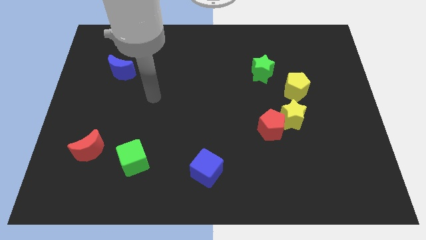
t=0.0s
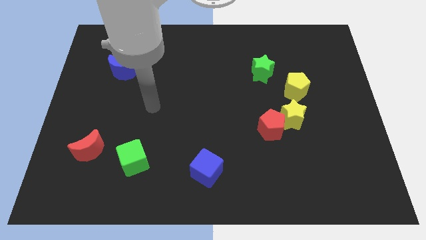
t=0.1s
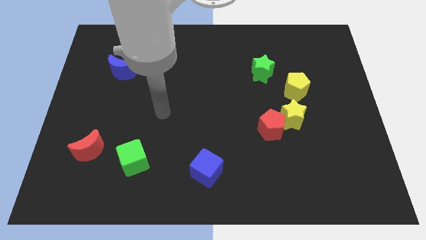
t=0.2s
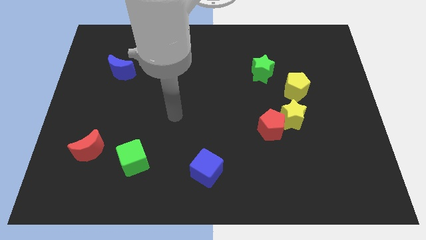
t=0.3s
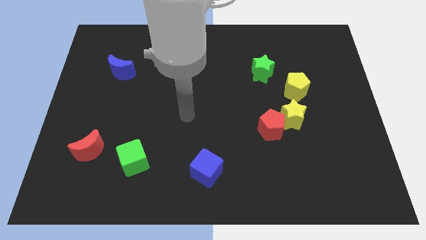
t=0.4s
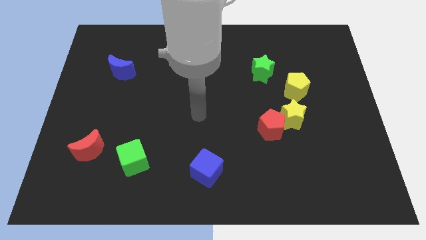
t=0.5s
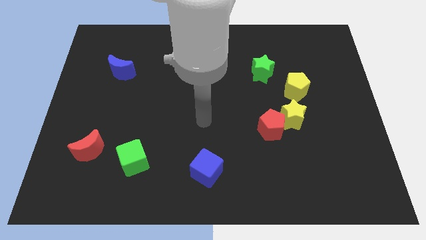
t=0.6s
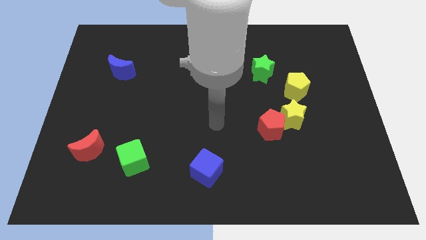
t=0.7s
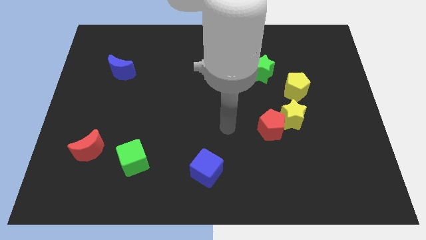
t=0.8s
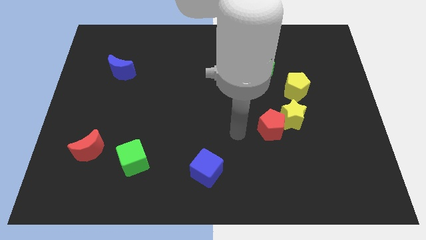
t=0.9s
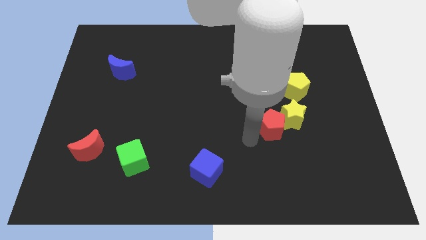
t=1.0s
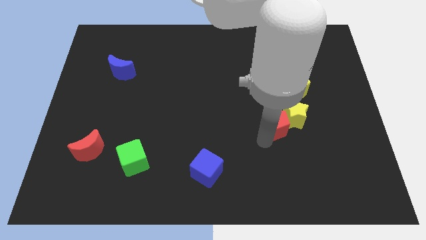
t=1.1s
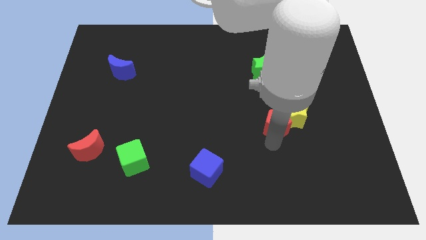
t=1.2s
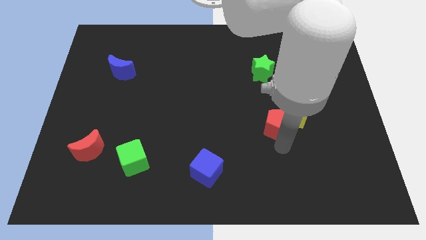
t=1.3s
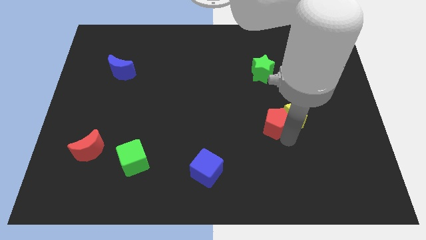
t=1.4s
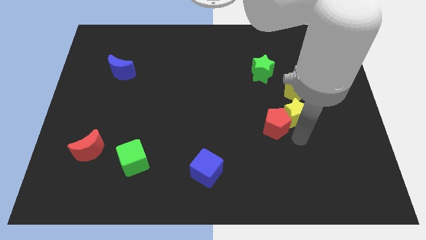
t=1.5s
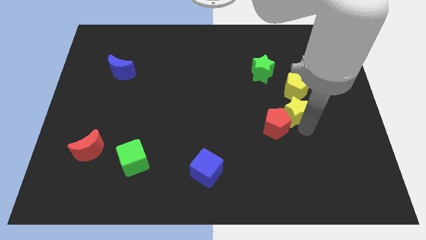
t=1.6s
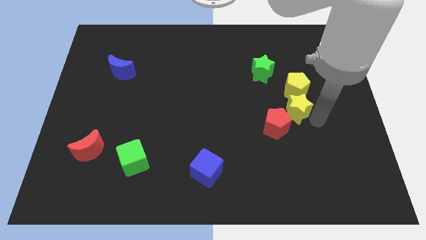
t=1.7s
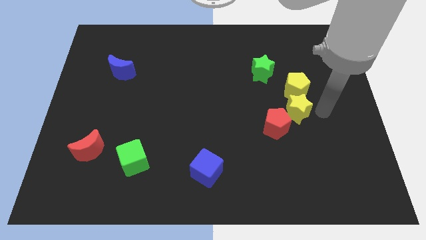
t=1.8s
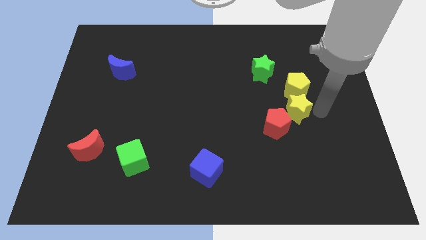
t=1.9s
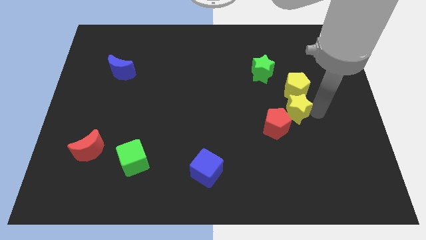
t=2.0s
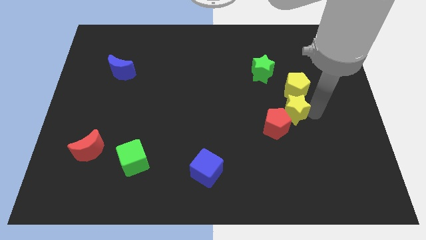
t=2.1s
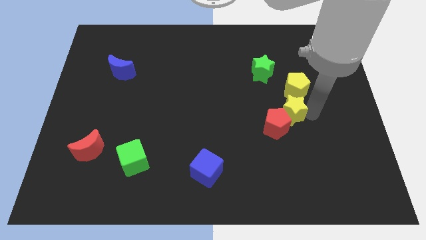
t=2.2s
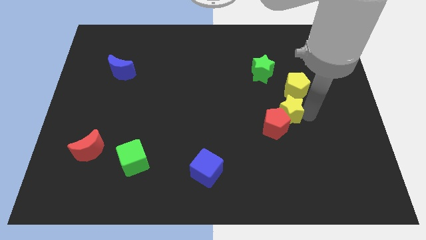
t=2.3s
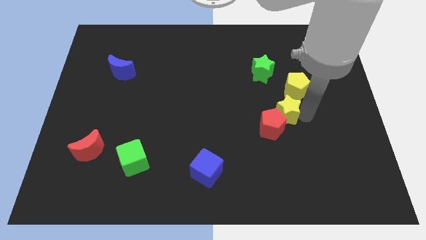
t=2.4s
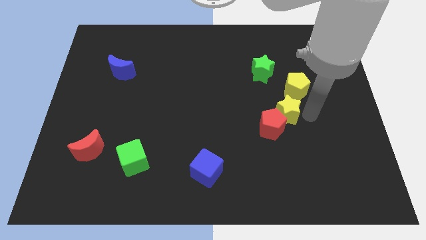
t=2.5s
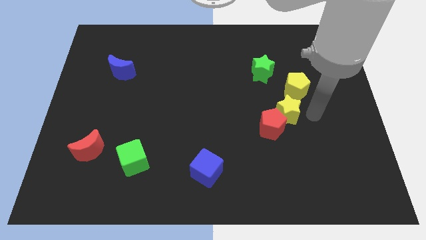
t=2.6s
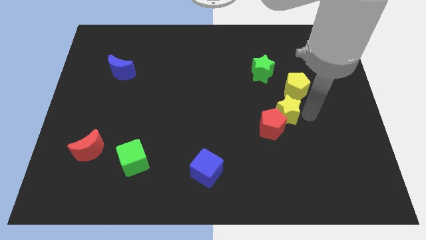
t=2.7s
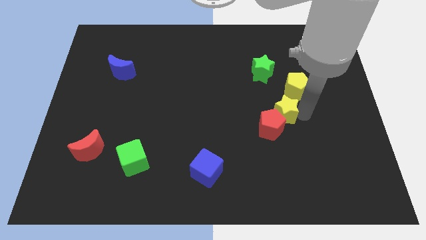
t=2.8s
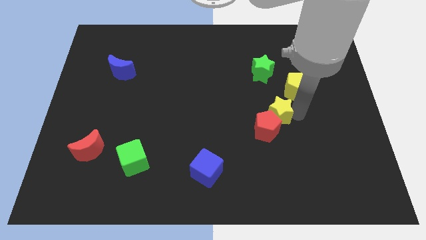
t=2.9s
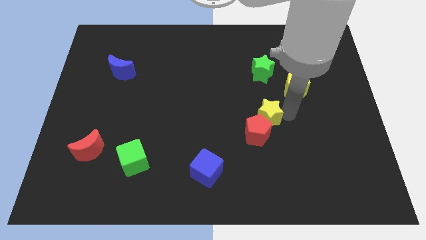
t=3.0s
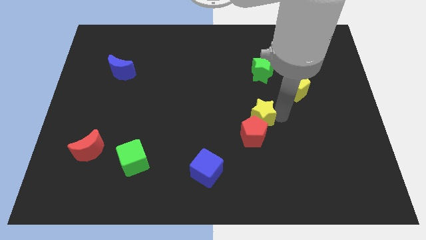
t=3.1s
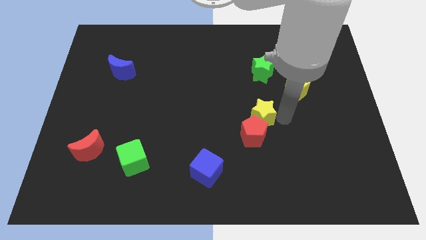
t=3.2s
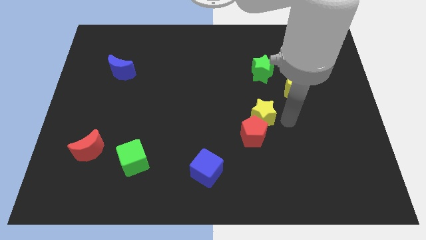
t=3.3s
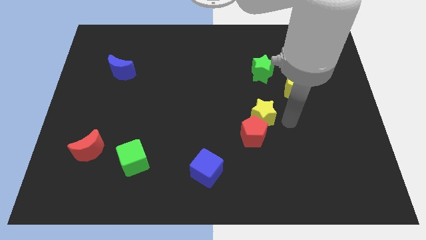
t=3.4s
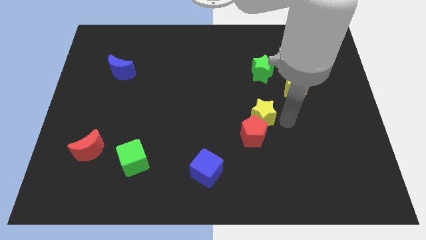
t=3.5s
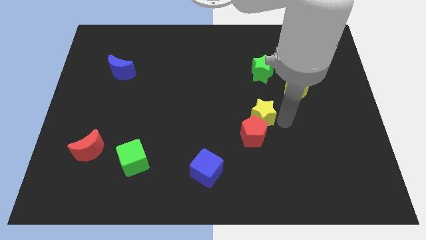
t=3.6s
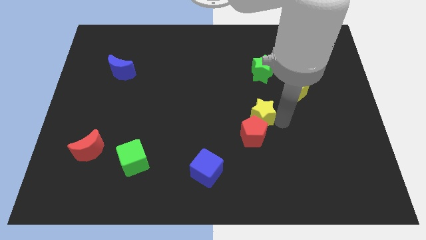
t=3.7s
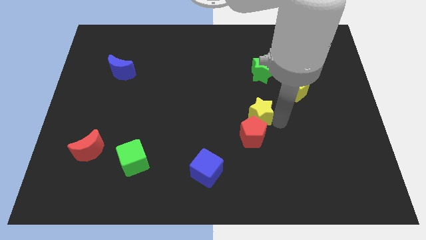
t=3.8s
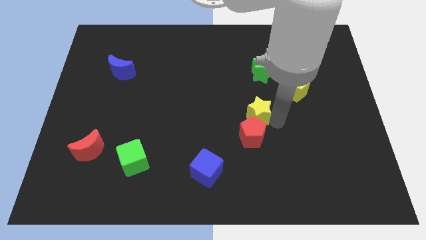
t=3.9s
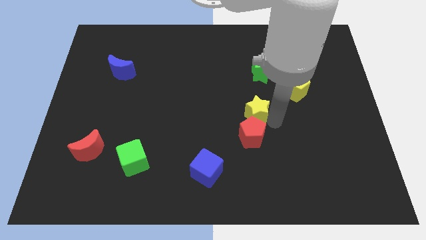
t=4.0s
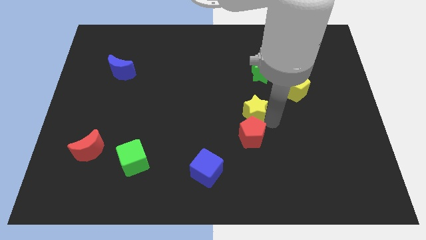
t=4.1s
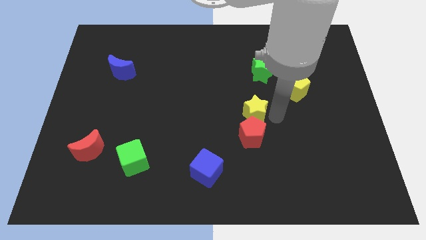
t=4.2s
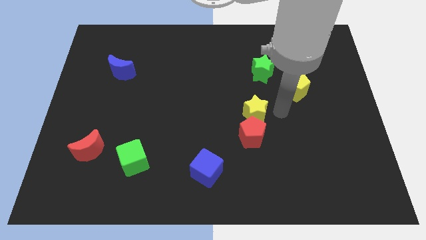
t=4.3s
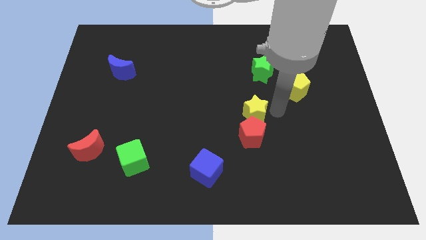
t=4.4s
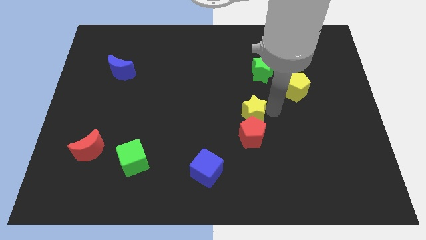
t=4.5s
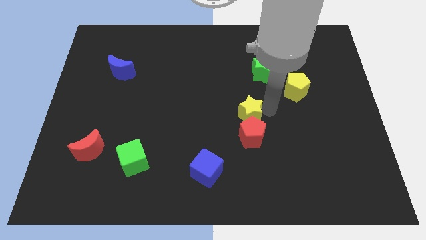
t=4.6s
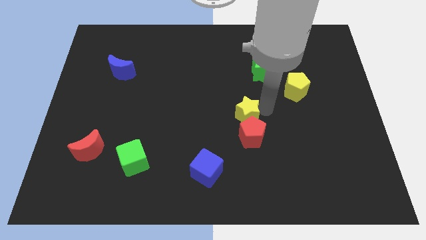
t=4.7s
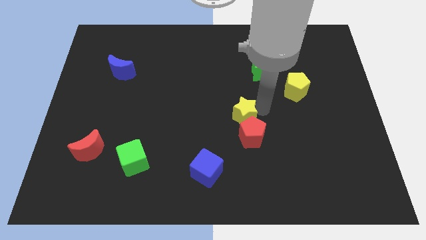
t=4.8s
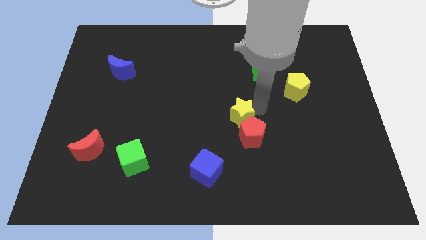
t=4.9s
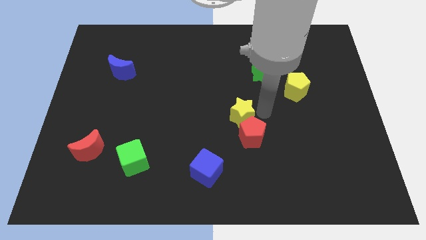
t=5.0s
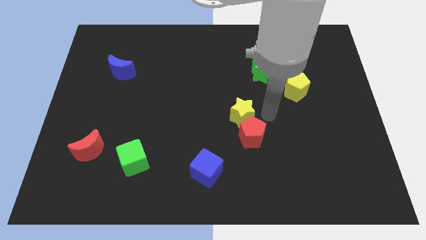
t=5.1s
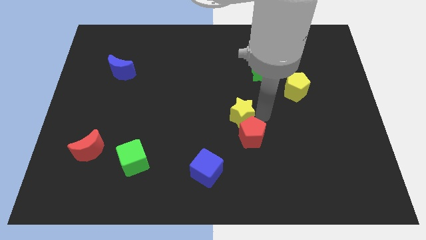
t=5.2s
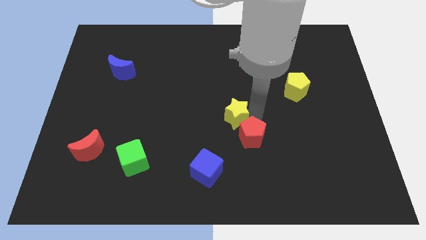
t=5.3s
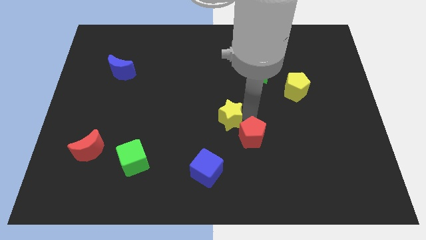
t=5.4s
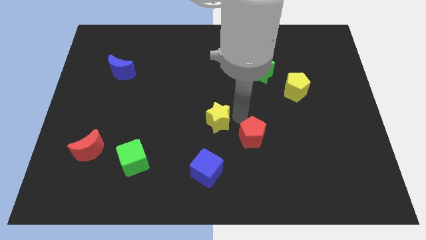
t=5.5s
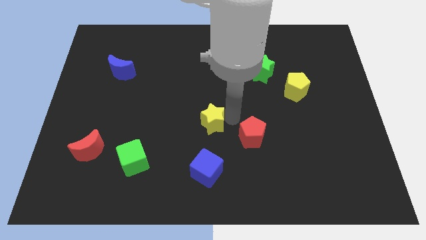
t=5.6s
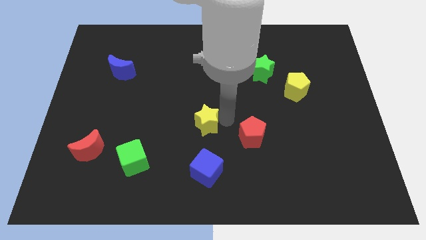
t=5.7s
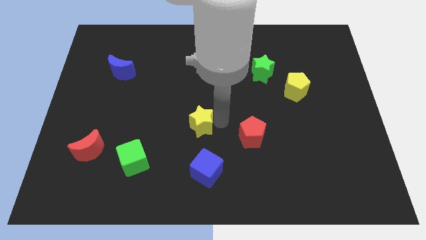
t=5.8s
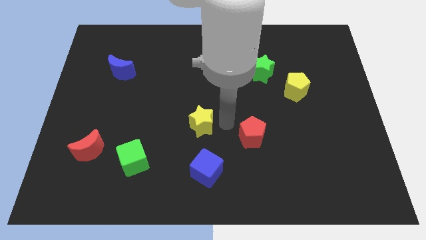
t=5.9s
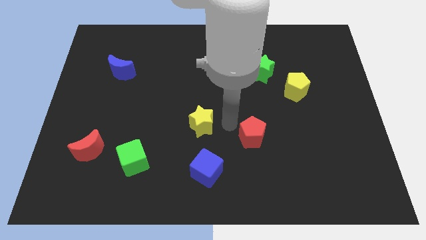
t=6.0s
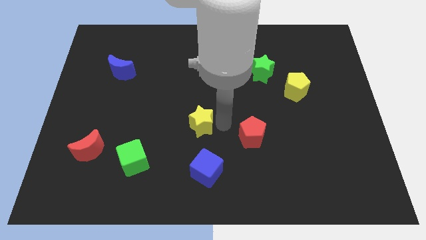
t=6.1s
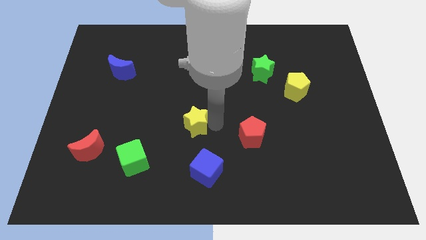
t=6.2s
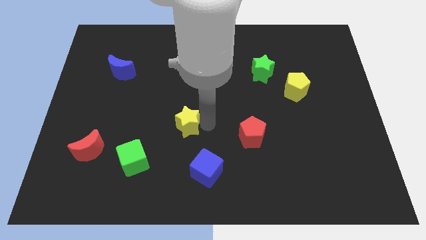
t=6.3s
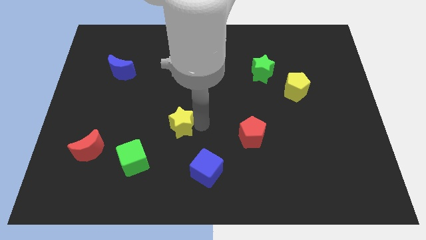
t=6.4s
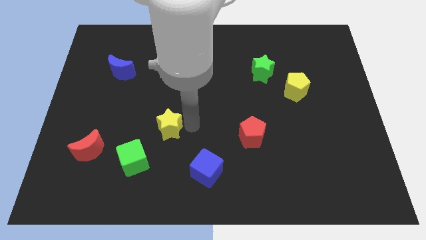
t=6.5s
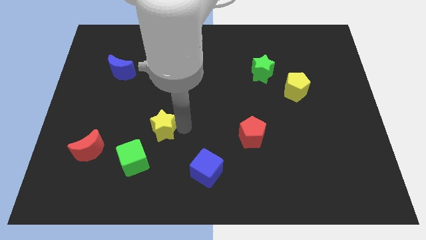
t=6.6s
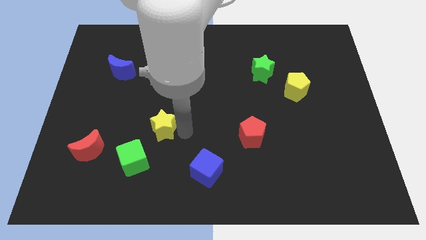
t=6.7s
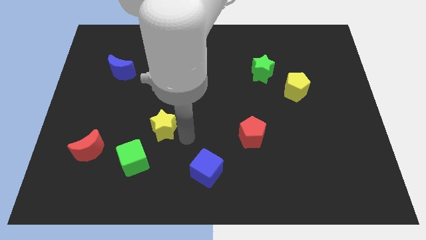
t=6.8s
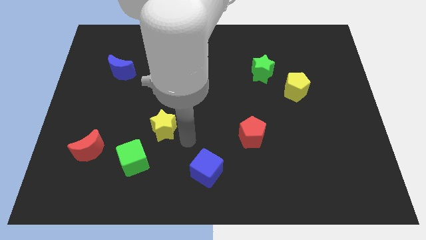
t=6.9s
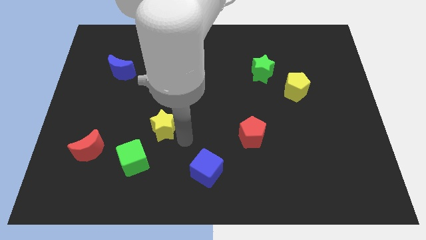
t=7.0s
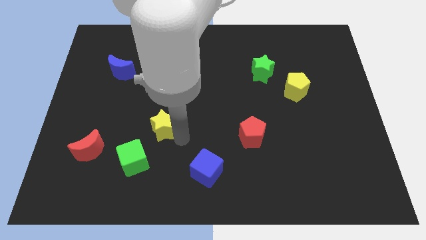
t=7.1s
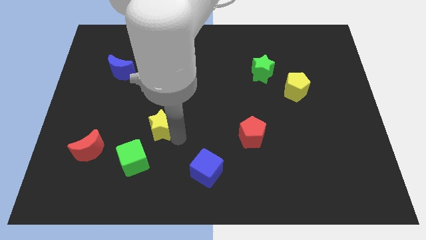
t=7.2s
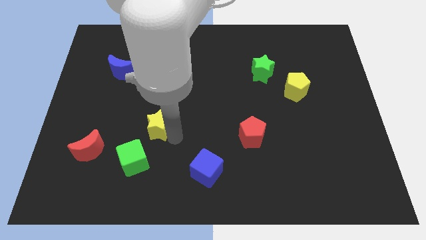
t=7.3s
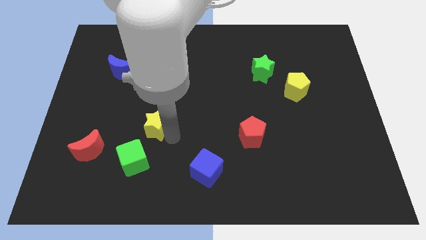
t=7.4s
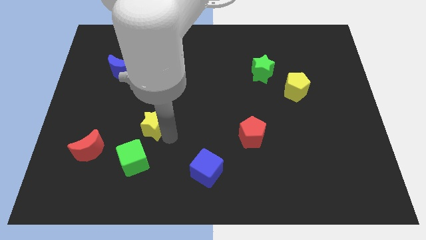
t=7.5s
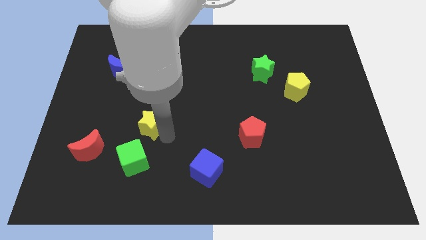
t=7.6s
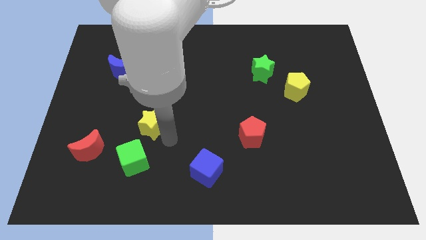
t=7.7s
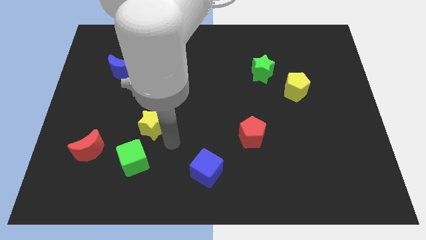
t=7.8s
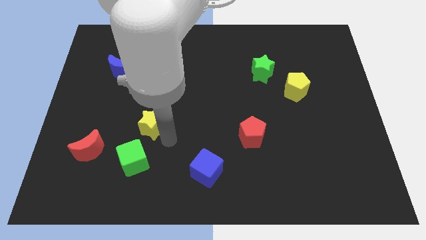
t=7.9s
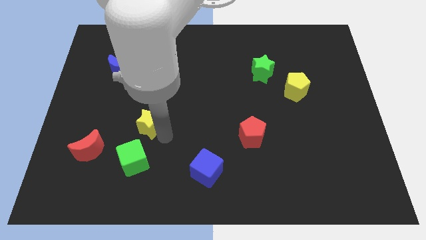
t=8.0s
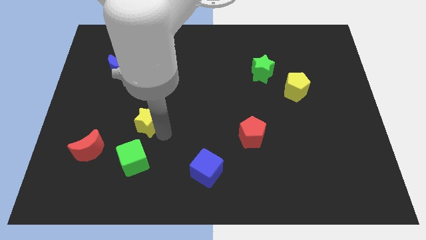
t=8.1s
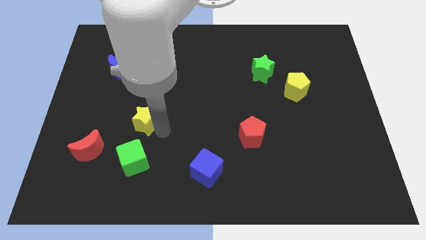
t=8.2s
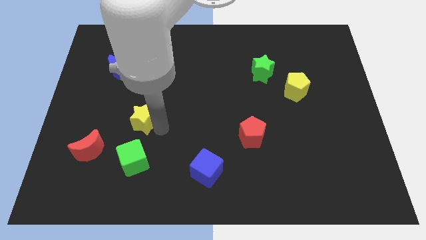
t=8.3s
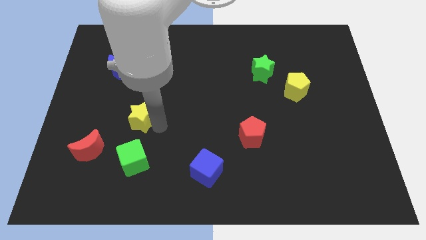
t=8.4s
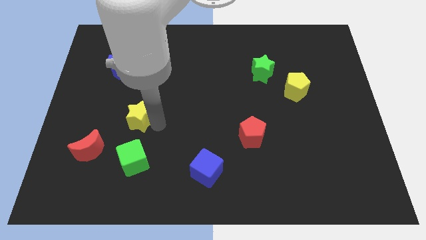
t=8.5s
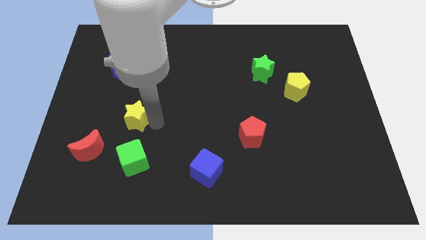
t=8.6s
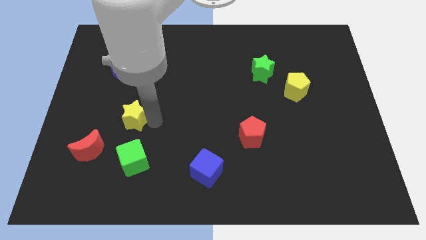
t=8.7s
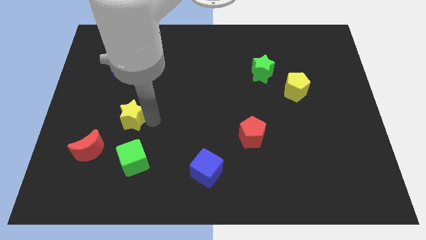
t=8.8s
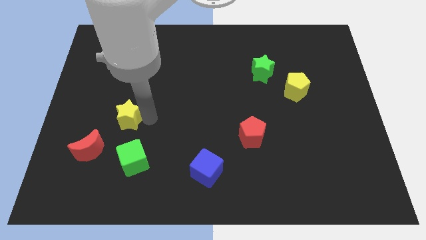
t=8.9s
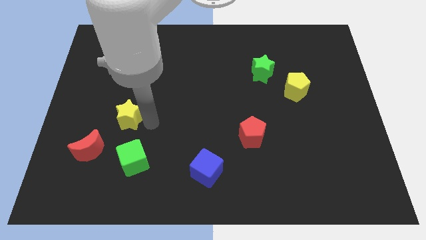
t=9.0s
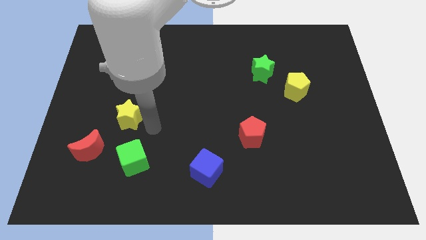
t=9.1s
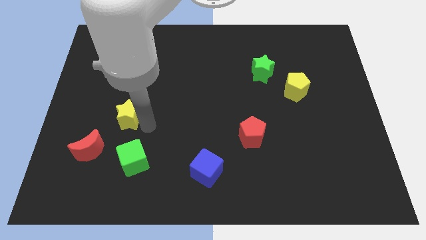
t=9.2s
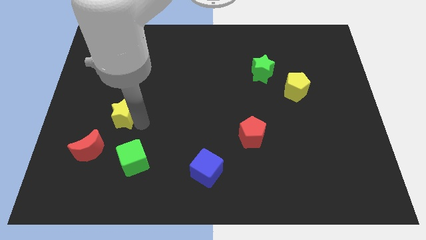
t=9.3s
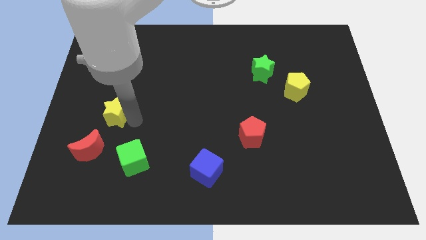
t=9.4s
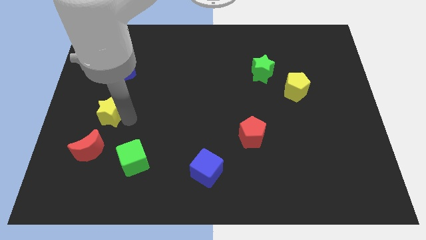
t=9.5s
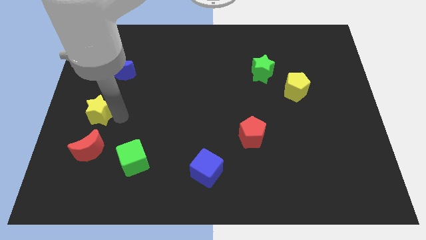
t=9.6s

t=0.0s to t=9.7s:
slide the yellow star to the center left
